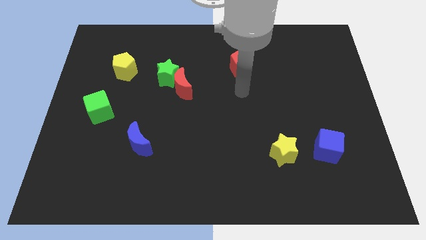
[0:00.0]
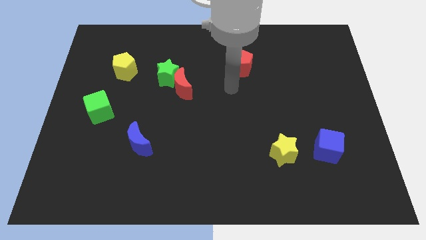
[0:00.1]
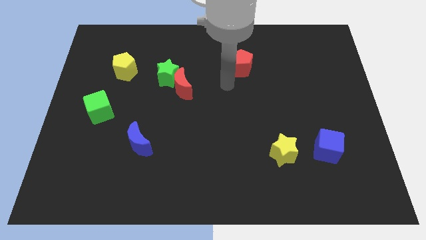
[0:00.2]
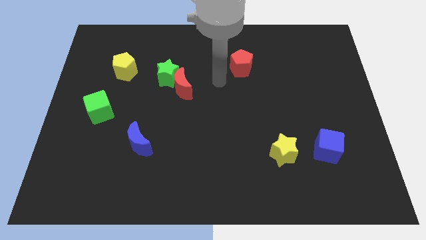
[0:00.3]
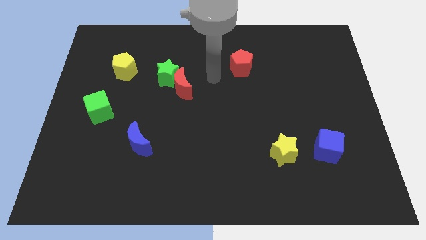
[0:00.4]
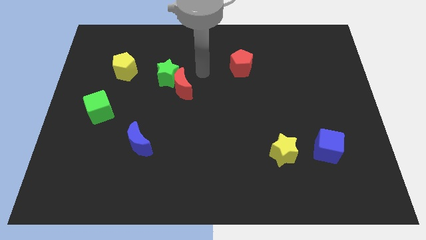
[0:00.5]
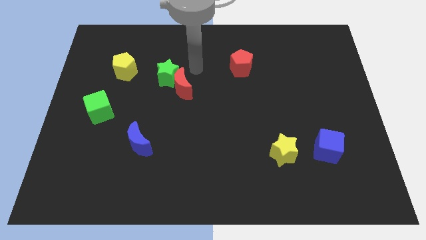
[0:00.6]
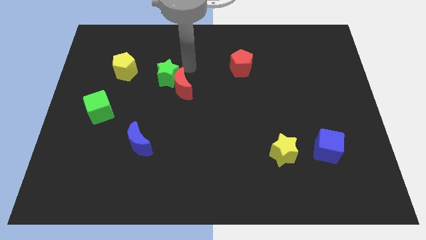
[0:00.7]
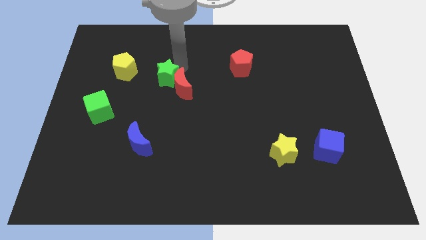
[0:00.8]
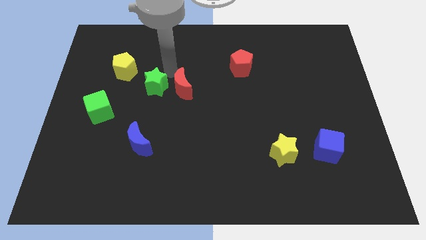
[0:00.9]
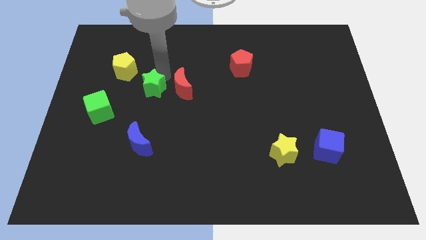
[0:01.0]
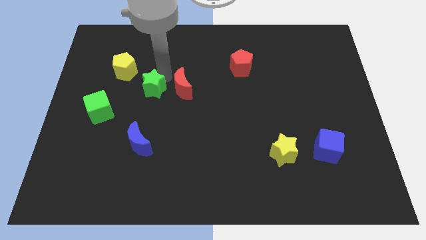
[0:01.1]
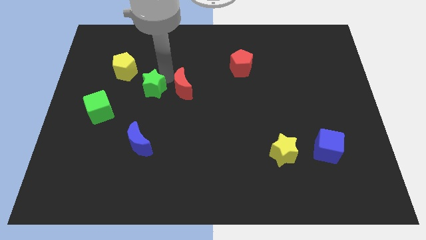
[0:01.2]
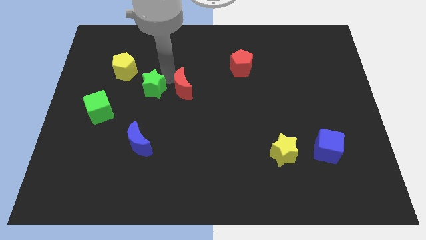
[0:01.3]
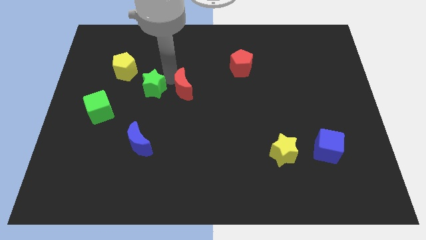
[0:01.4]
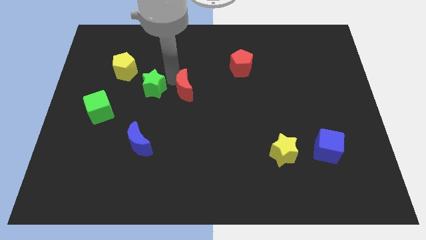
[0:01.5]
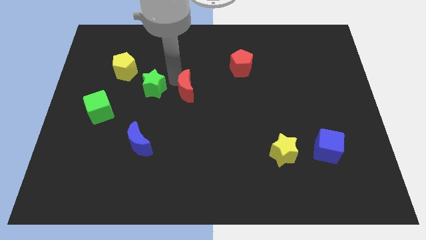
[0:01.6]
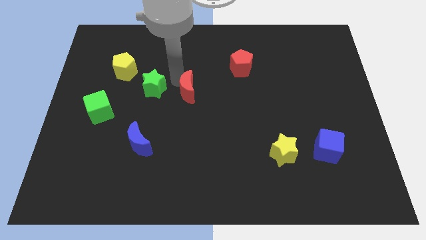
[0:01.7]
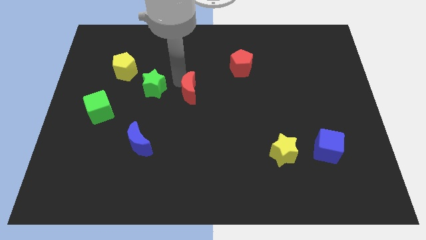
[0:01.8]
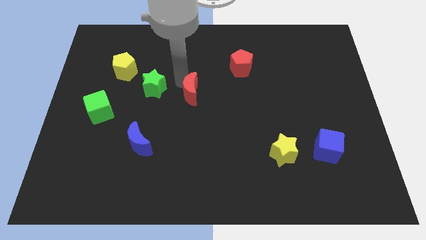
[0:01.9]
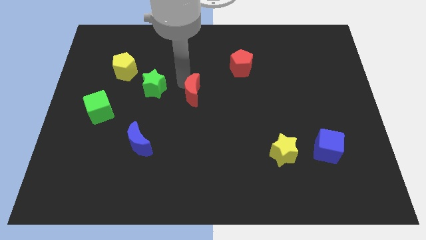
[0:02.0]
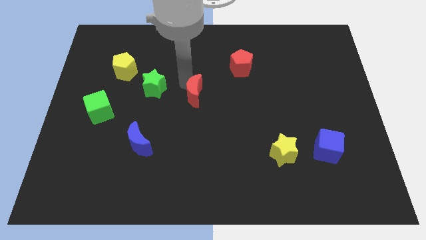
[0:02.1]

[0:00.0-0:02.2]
separate the red moon from the green star

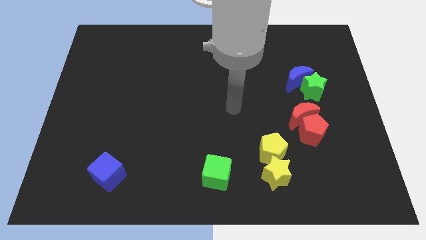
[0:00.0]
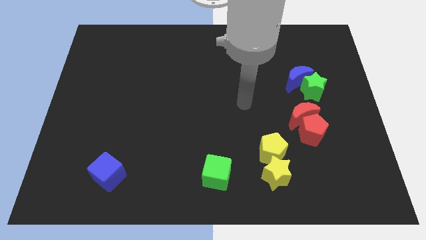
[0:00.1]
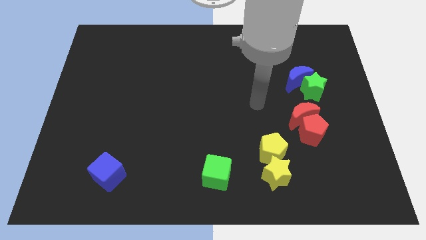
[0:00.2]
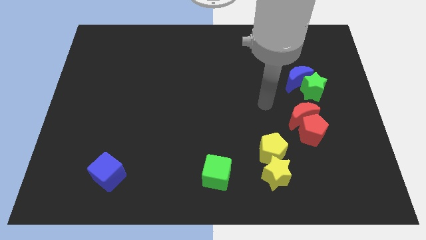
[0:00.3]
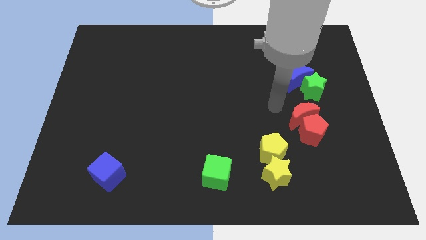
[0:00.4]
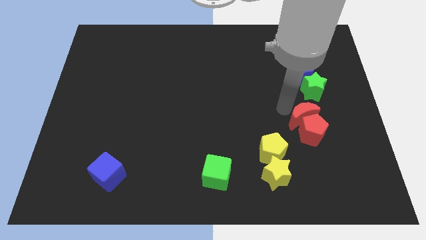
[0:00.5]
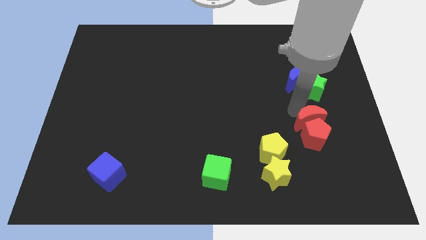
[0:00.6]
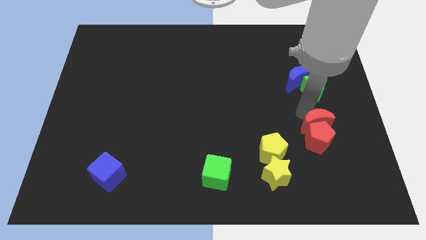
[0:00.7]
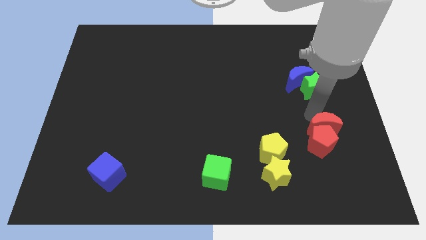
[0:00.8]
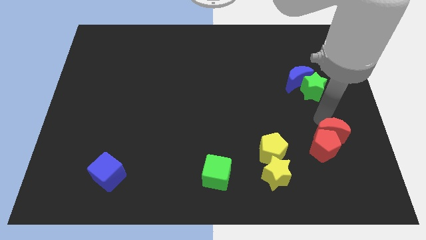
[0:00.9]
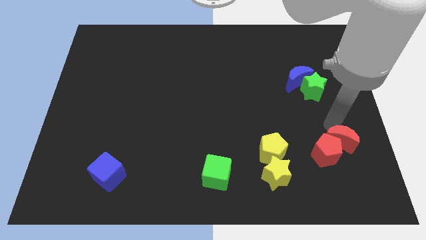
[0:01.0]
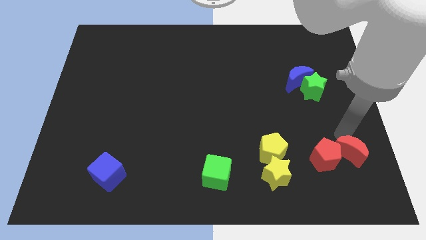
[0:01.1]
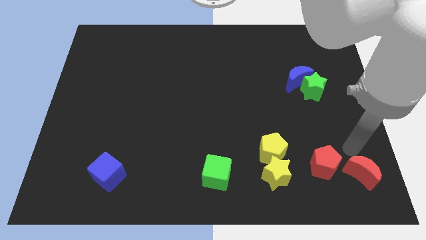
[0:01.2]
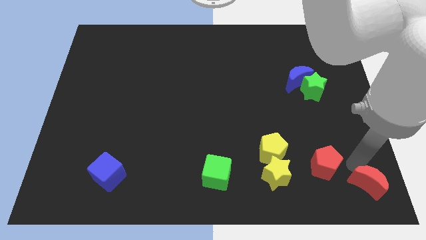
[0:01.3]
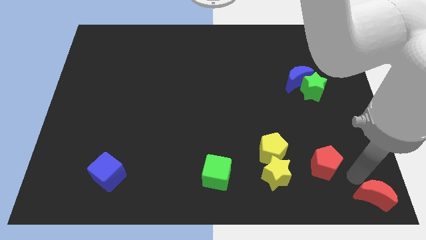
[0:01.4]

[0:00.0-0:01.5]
separate the red pentagon from the red moon

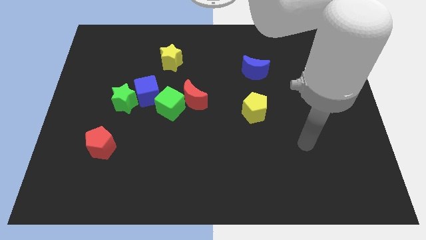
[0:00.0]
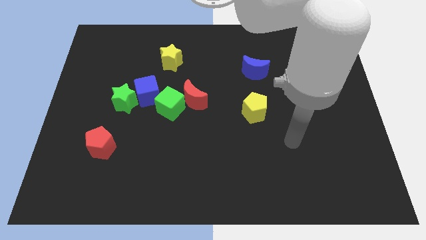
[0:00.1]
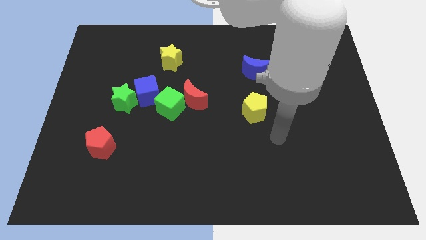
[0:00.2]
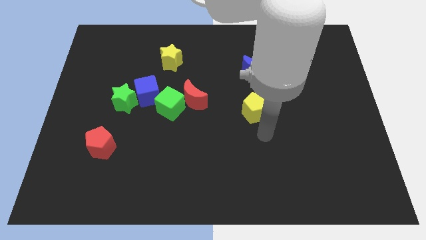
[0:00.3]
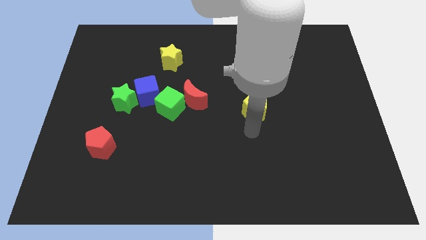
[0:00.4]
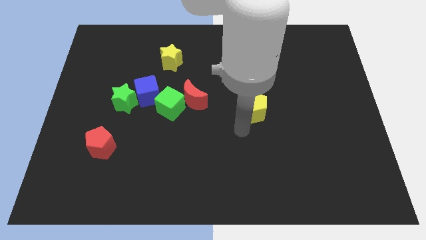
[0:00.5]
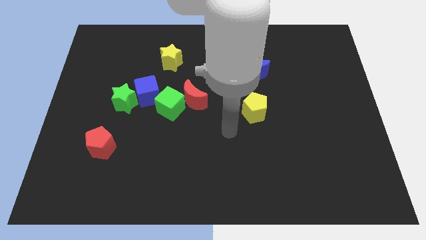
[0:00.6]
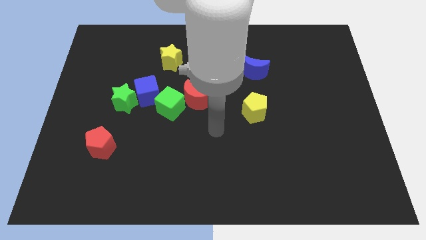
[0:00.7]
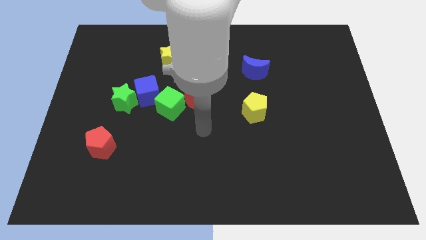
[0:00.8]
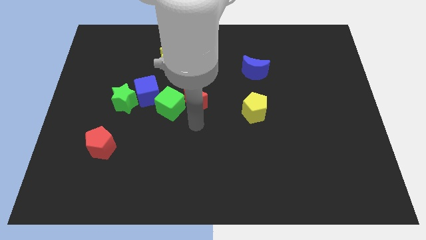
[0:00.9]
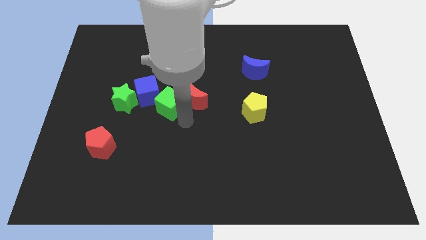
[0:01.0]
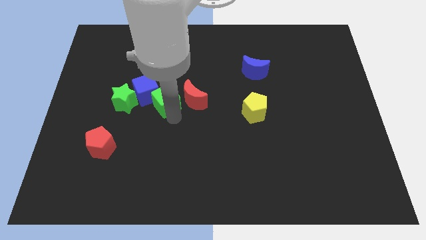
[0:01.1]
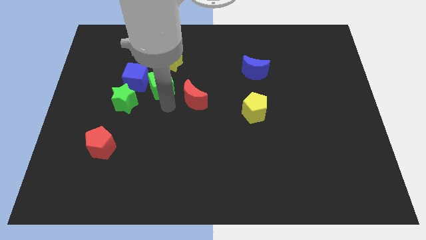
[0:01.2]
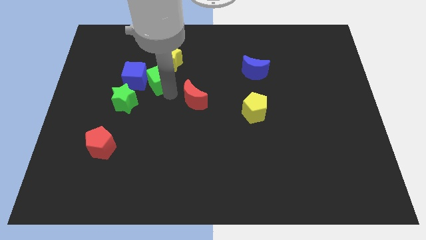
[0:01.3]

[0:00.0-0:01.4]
separate the red moon from the green cube

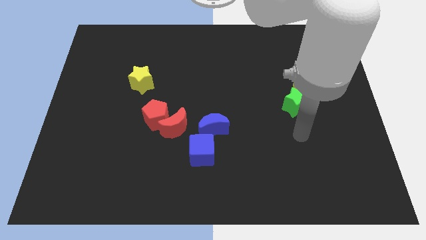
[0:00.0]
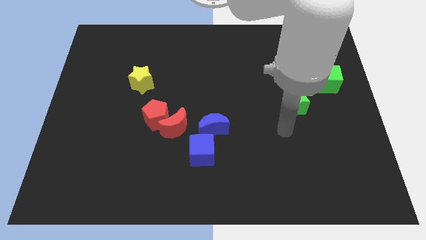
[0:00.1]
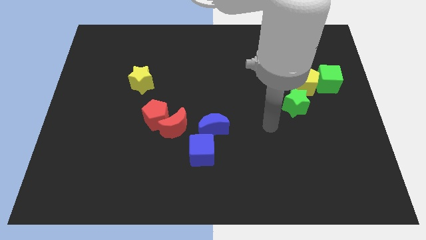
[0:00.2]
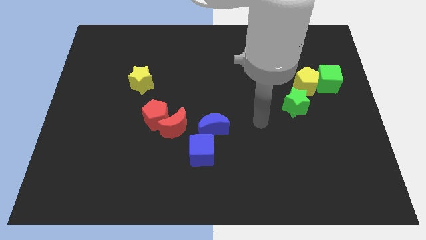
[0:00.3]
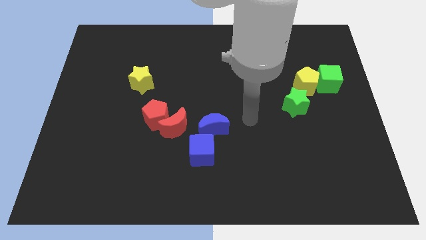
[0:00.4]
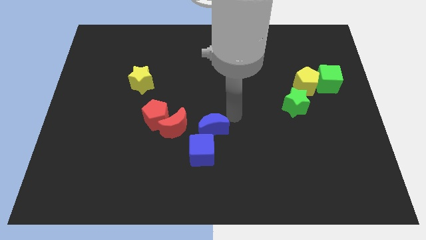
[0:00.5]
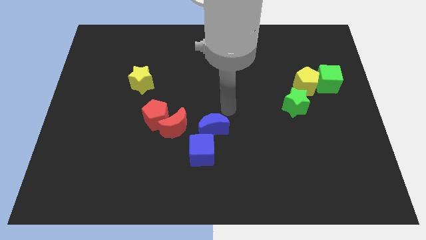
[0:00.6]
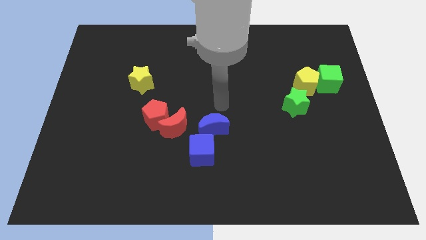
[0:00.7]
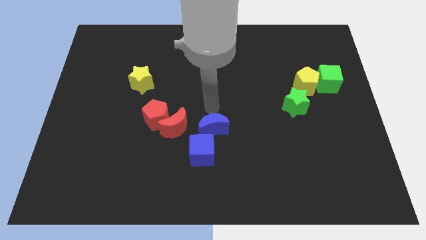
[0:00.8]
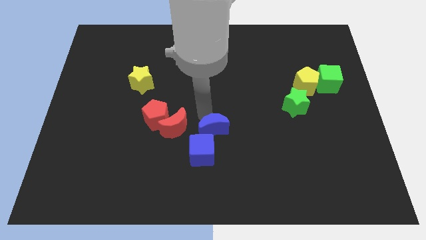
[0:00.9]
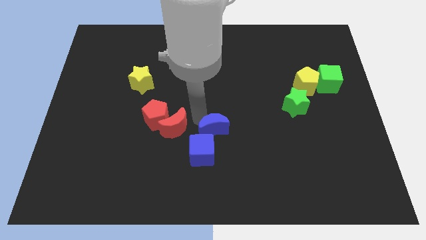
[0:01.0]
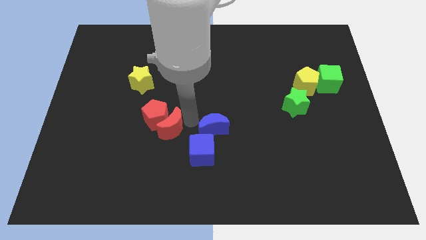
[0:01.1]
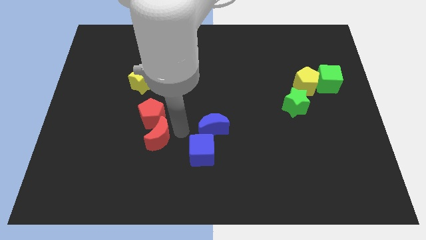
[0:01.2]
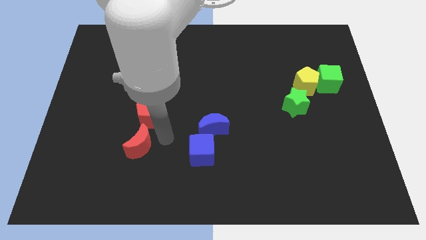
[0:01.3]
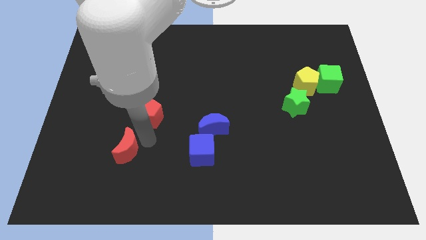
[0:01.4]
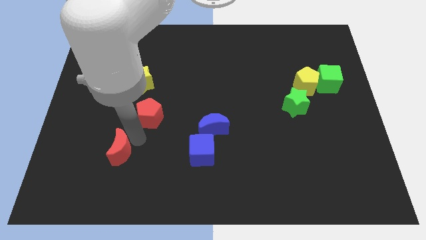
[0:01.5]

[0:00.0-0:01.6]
move the red pentagon away from the red moon

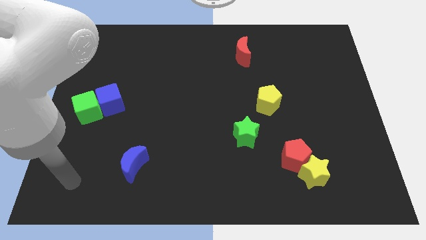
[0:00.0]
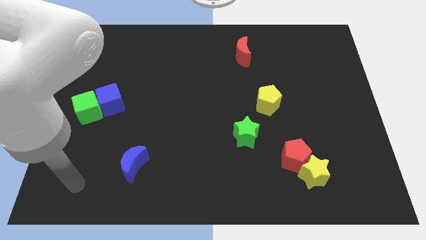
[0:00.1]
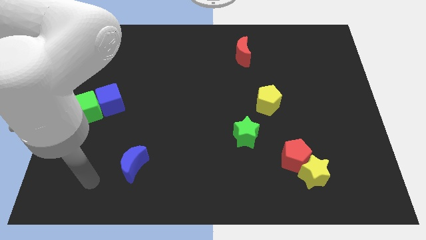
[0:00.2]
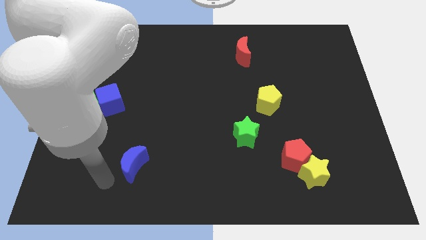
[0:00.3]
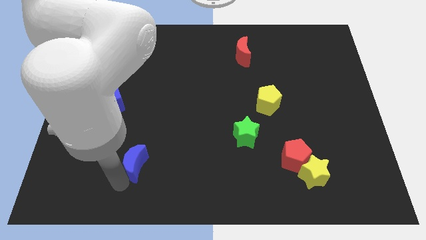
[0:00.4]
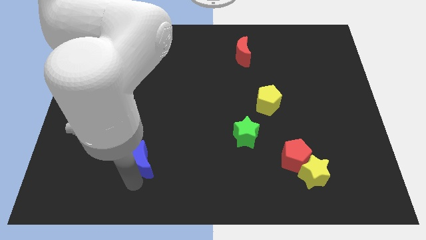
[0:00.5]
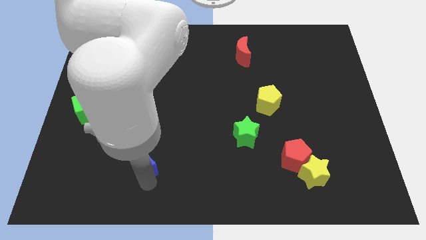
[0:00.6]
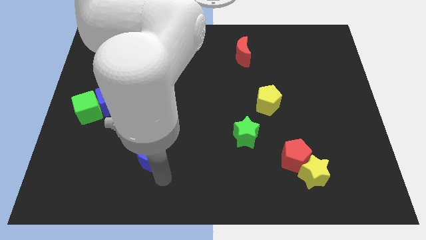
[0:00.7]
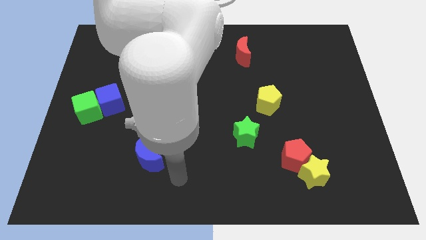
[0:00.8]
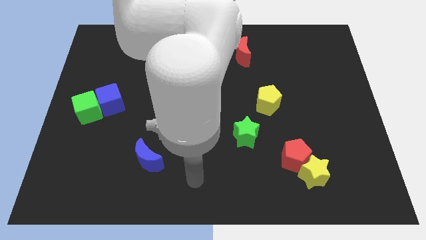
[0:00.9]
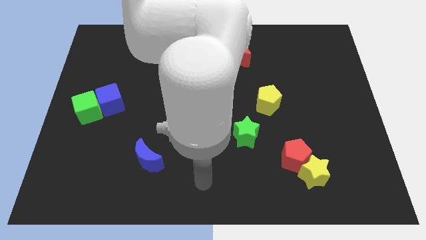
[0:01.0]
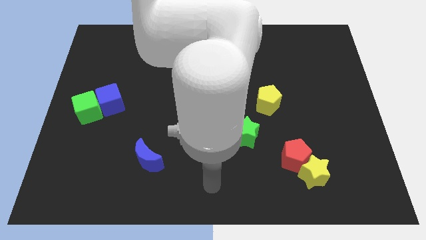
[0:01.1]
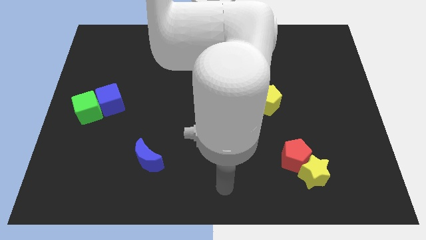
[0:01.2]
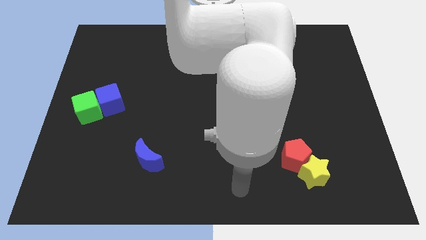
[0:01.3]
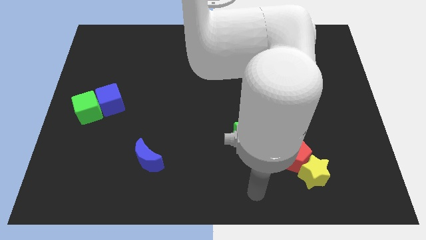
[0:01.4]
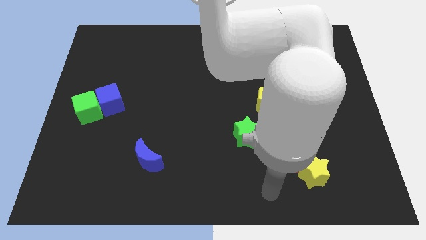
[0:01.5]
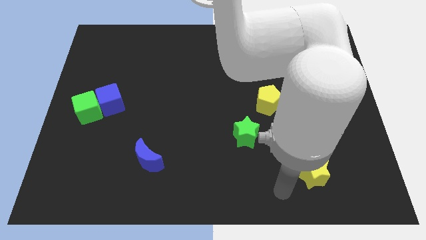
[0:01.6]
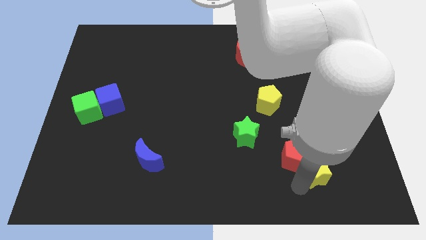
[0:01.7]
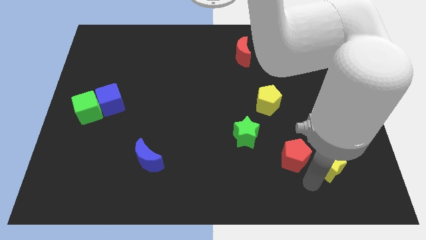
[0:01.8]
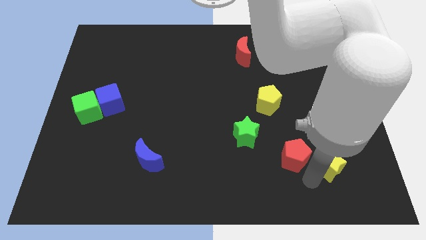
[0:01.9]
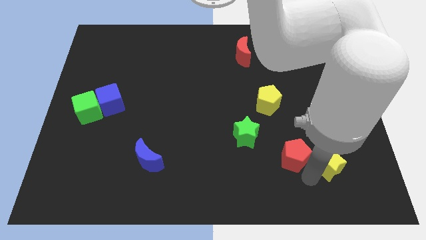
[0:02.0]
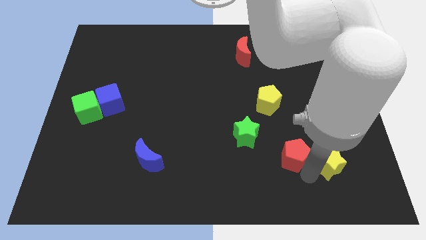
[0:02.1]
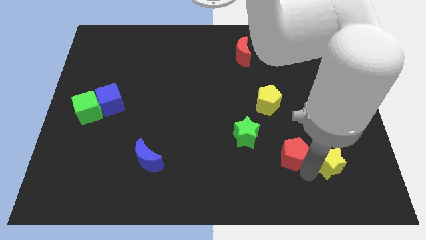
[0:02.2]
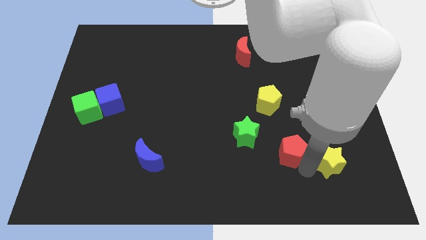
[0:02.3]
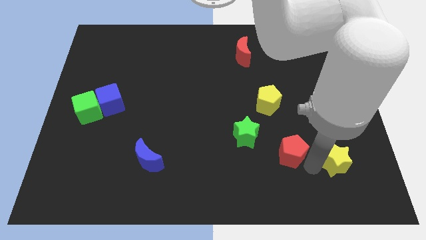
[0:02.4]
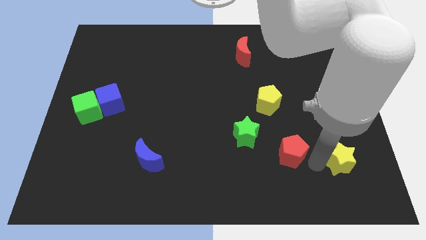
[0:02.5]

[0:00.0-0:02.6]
move the red pentagon away from the yellow star

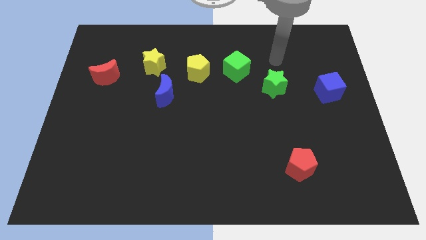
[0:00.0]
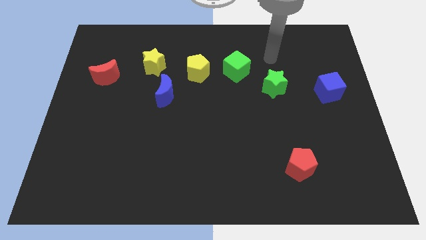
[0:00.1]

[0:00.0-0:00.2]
separate the green cube from the yellow pentagon
